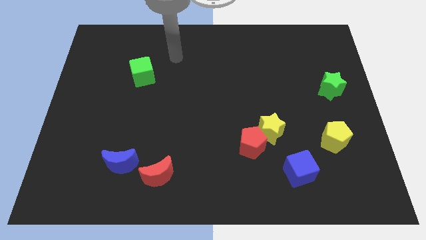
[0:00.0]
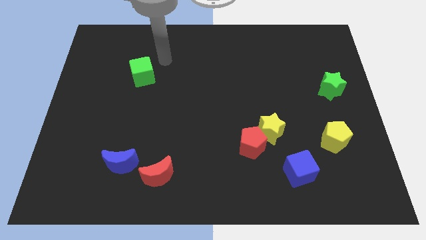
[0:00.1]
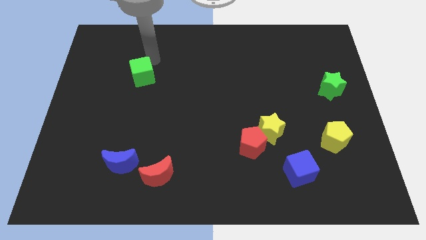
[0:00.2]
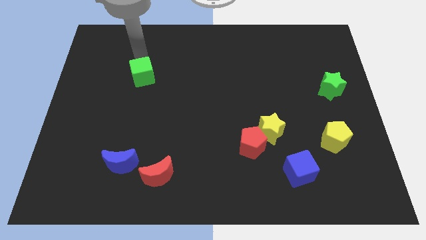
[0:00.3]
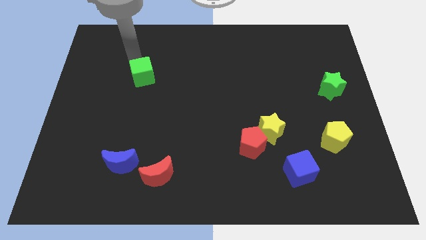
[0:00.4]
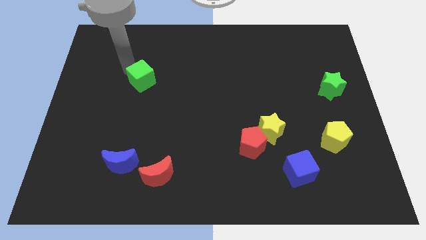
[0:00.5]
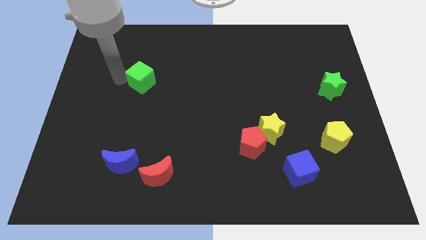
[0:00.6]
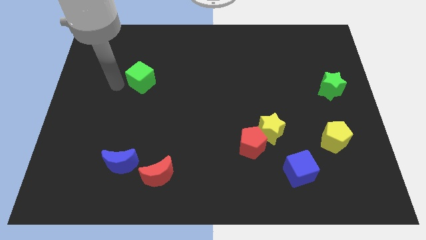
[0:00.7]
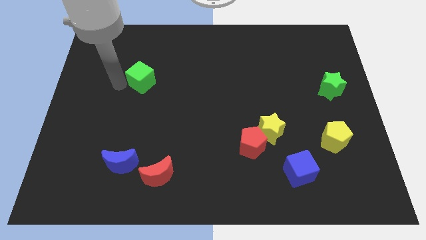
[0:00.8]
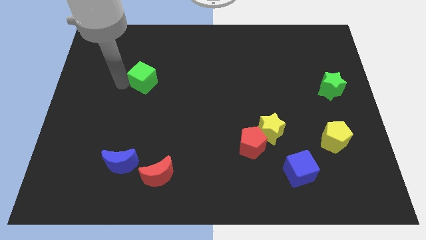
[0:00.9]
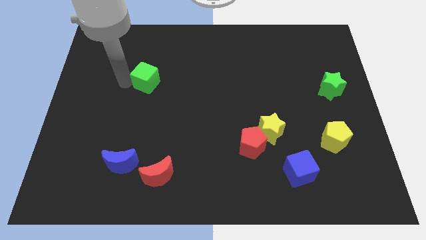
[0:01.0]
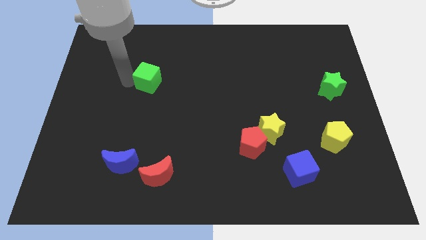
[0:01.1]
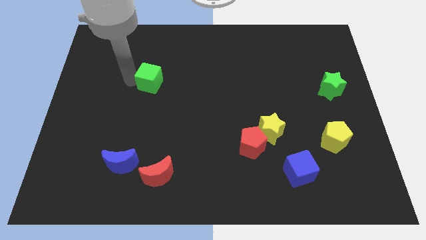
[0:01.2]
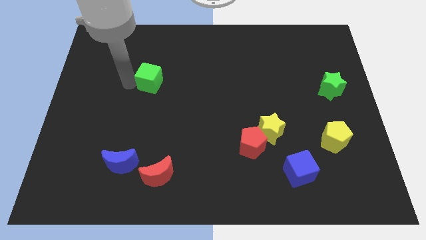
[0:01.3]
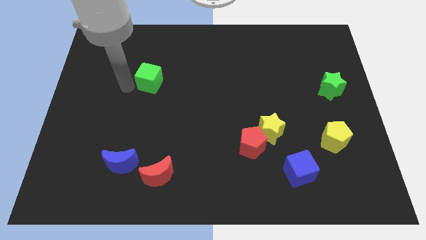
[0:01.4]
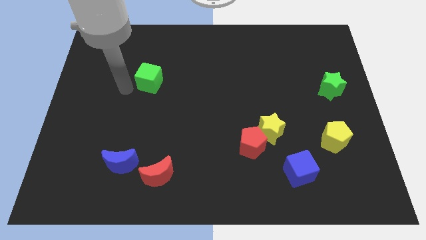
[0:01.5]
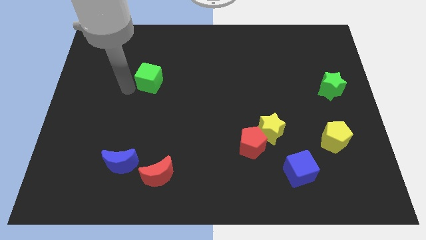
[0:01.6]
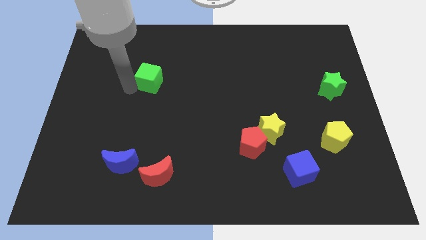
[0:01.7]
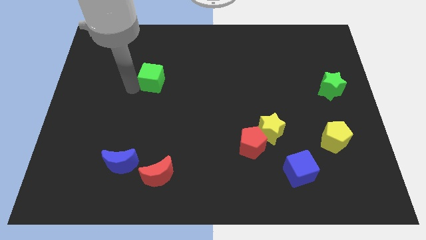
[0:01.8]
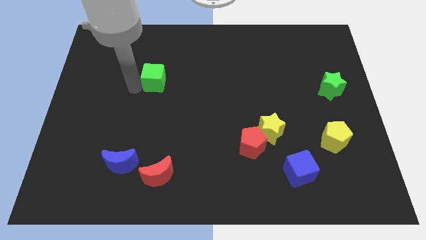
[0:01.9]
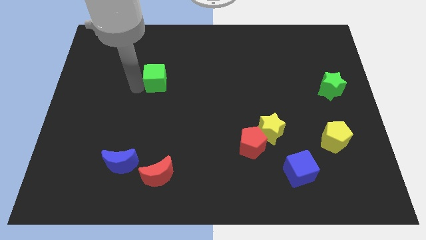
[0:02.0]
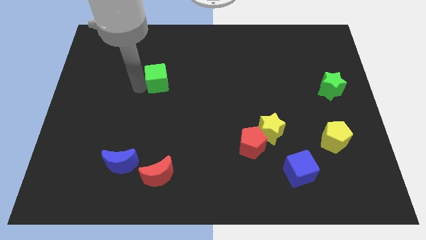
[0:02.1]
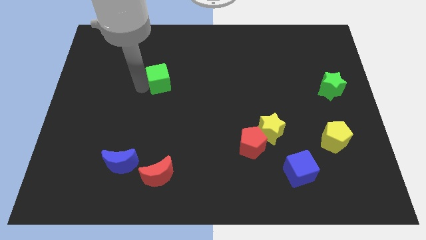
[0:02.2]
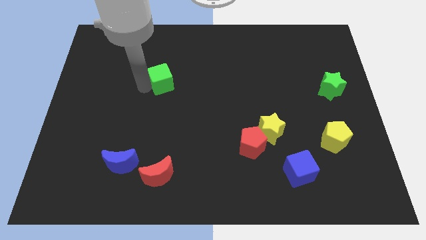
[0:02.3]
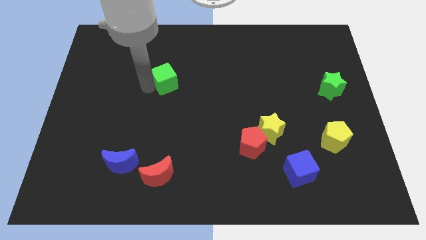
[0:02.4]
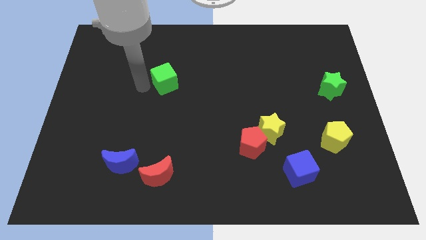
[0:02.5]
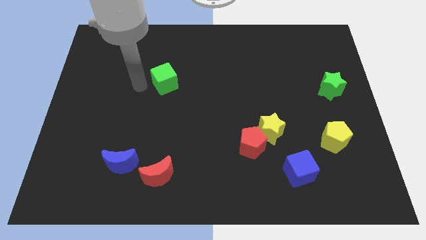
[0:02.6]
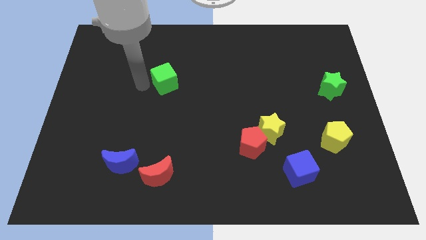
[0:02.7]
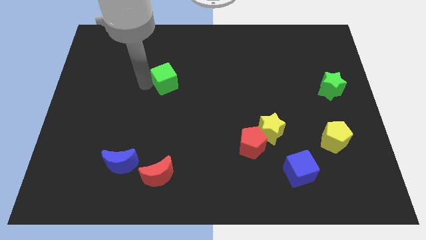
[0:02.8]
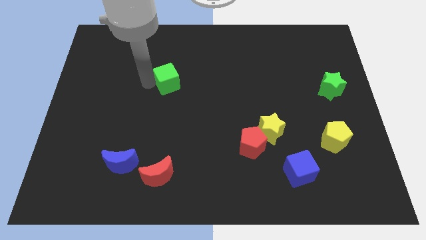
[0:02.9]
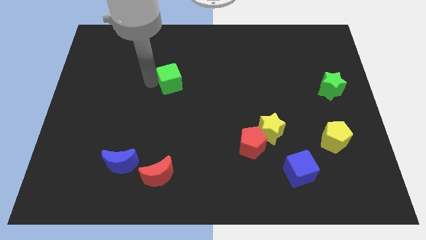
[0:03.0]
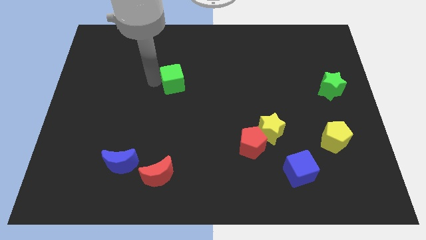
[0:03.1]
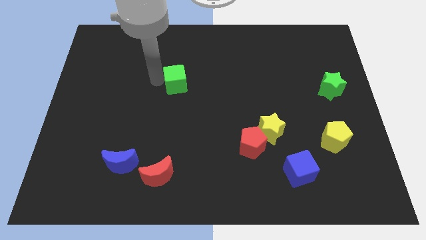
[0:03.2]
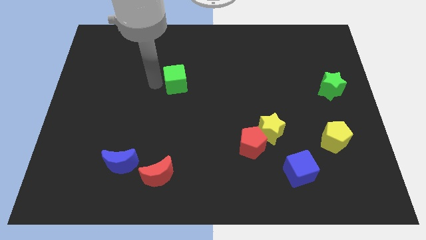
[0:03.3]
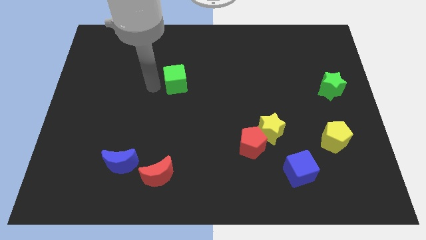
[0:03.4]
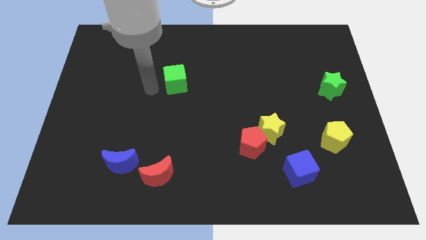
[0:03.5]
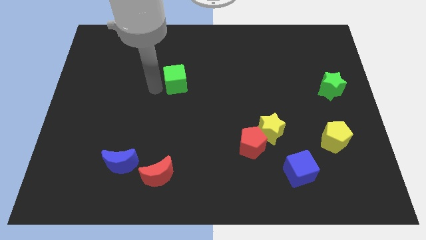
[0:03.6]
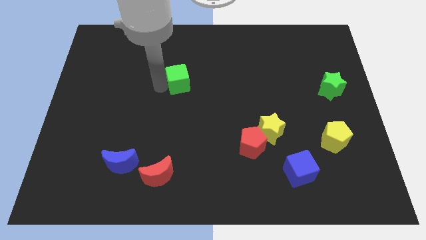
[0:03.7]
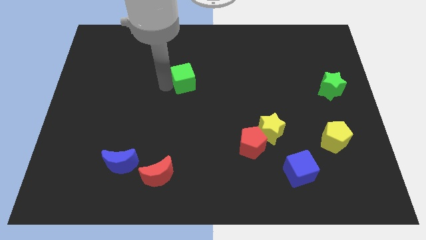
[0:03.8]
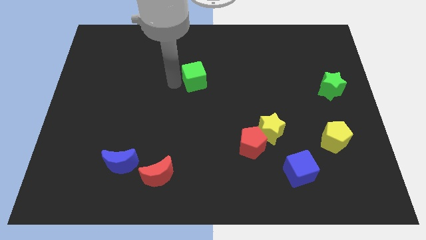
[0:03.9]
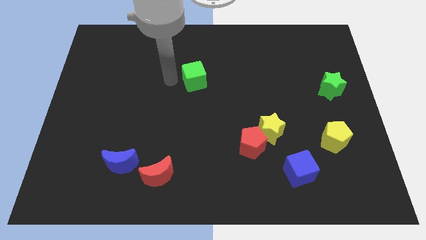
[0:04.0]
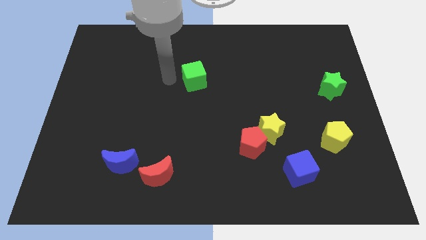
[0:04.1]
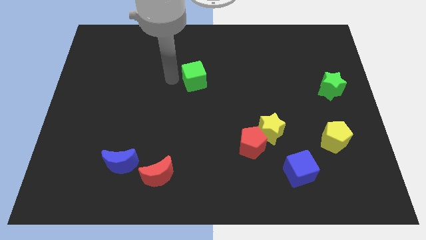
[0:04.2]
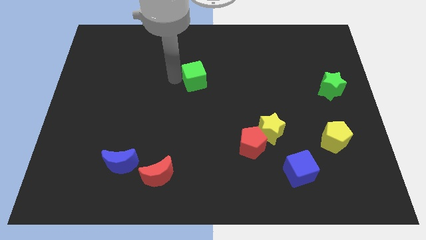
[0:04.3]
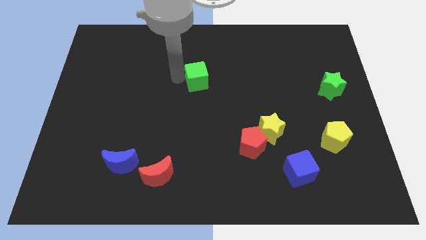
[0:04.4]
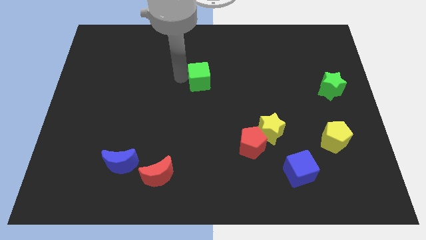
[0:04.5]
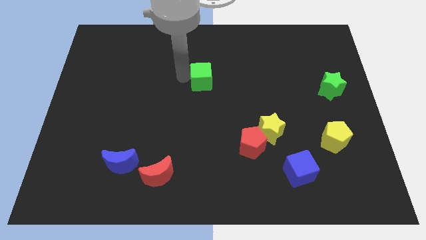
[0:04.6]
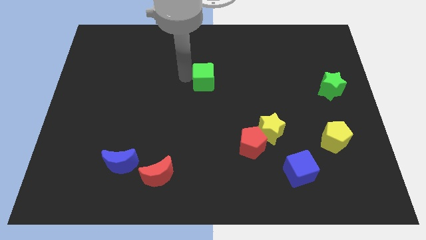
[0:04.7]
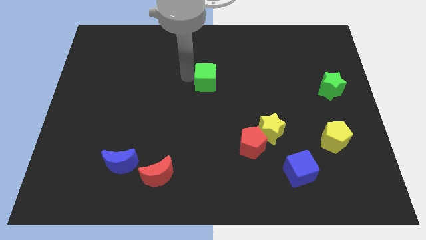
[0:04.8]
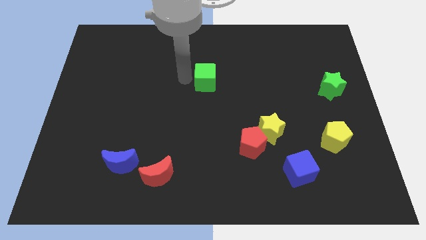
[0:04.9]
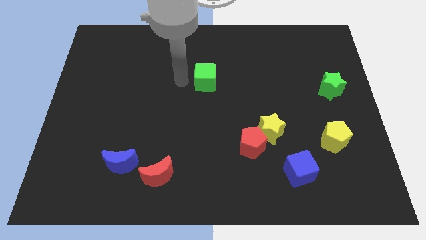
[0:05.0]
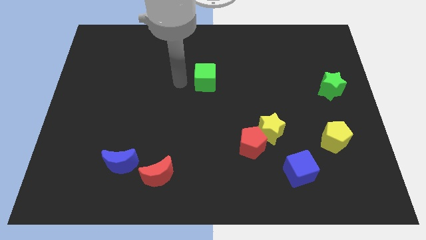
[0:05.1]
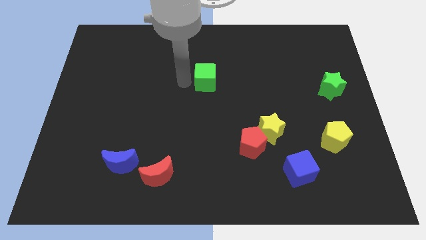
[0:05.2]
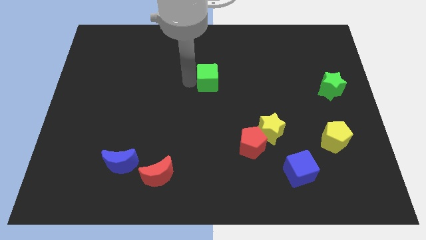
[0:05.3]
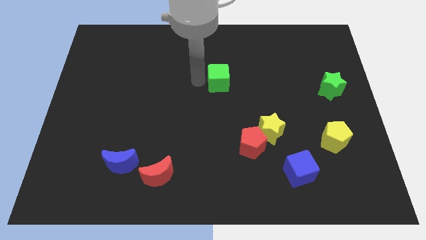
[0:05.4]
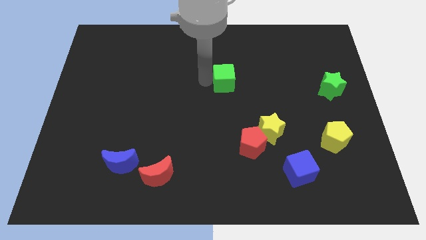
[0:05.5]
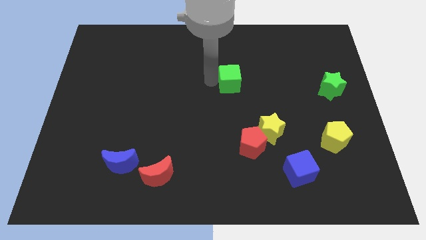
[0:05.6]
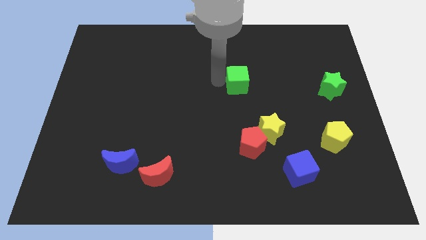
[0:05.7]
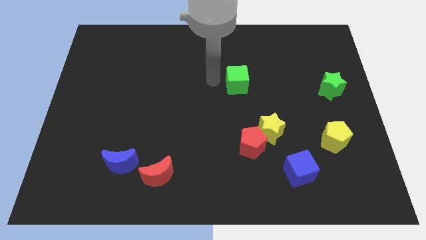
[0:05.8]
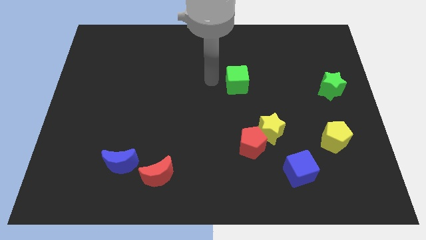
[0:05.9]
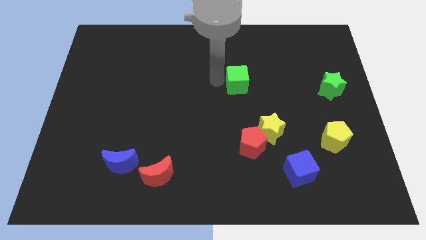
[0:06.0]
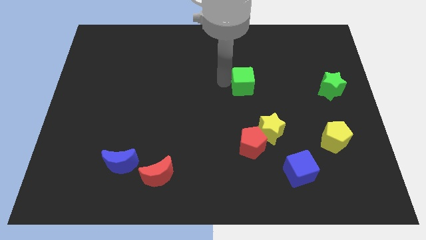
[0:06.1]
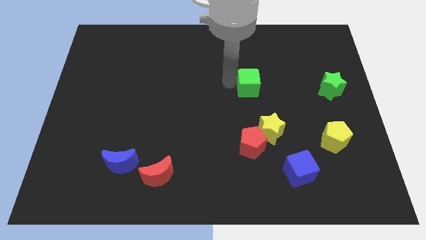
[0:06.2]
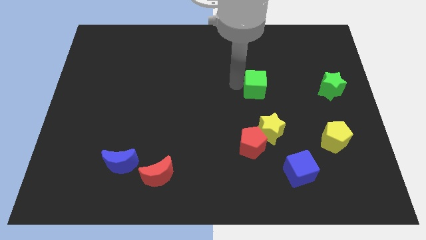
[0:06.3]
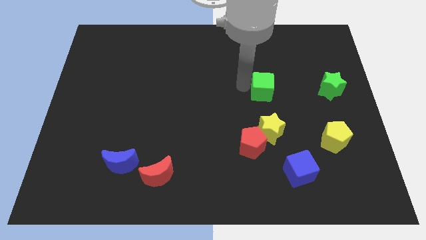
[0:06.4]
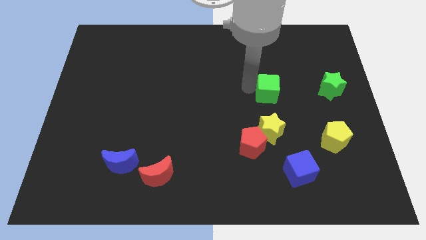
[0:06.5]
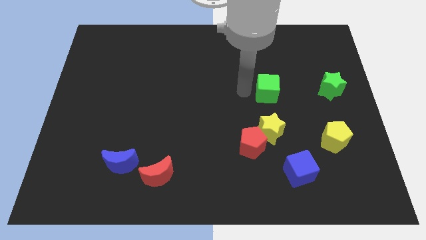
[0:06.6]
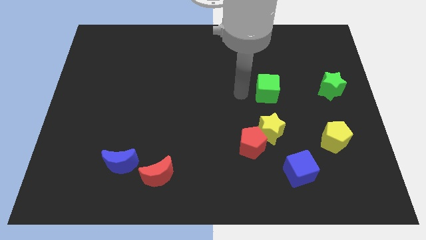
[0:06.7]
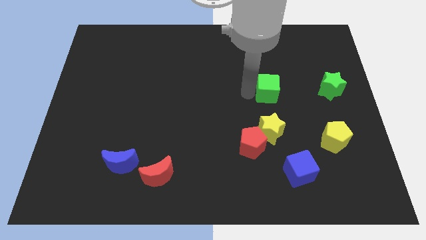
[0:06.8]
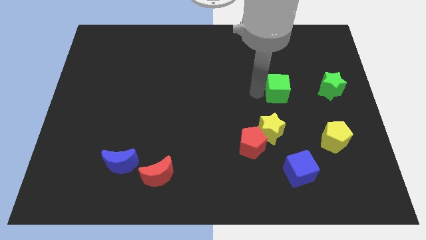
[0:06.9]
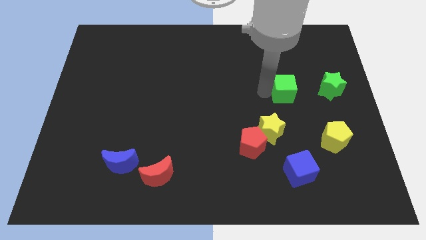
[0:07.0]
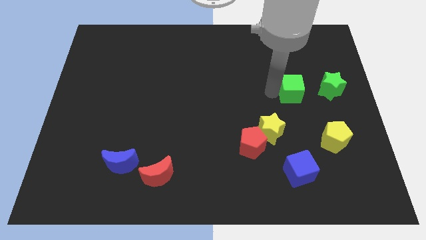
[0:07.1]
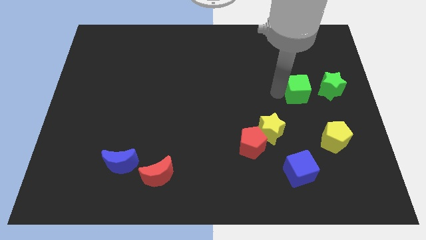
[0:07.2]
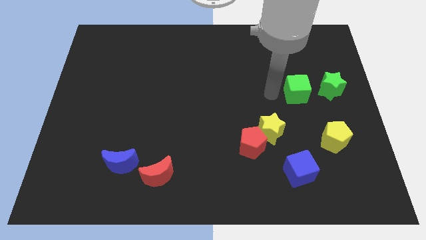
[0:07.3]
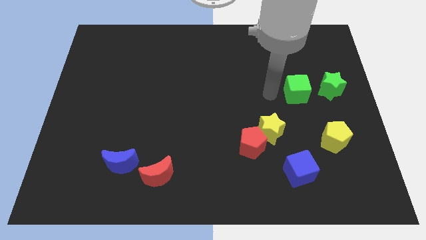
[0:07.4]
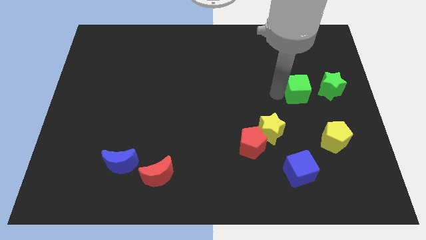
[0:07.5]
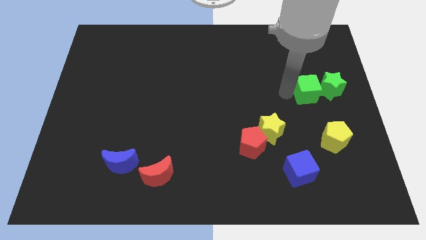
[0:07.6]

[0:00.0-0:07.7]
move the green cube next to the green star
